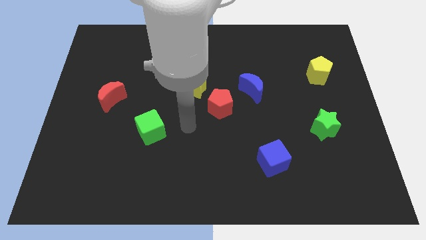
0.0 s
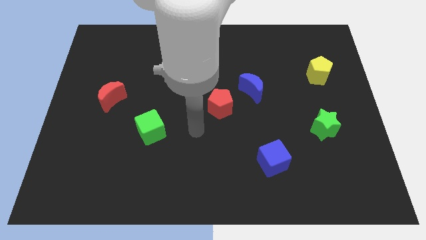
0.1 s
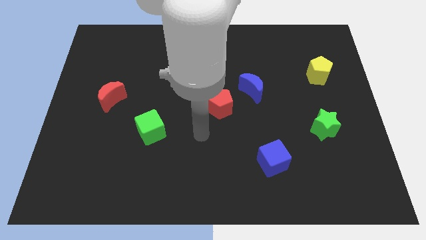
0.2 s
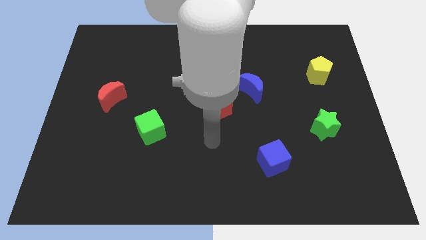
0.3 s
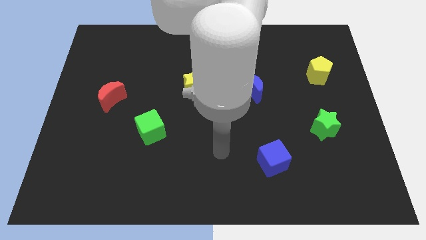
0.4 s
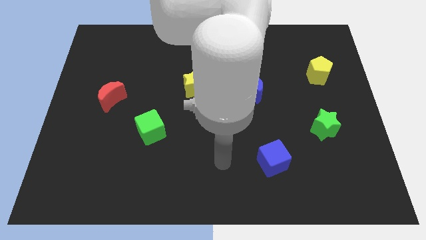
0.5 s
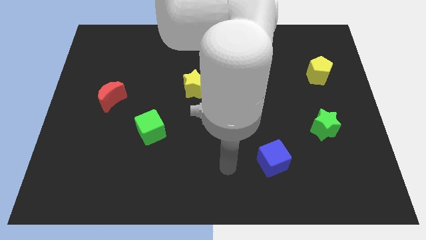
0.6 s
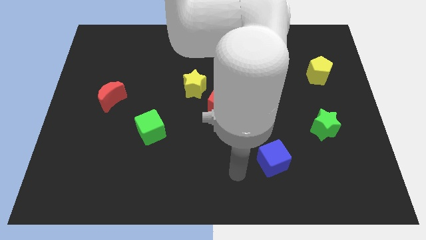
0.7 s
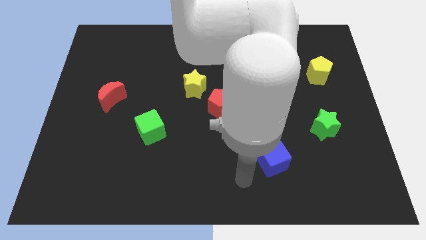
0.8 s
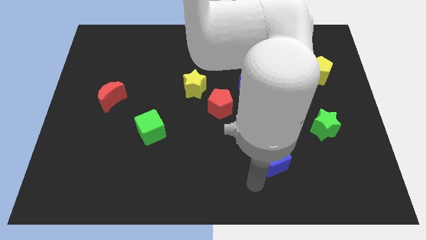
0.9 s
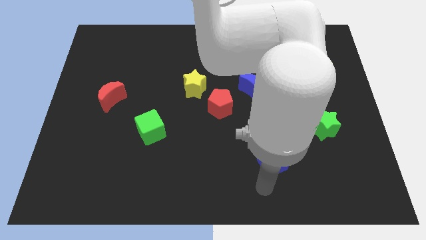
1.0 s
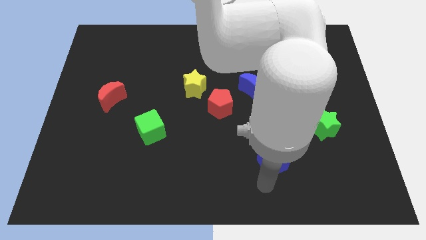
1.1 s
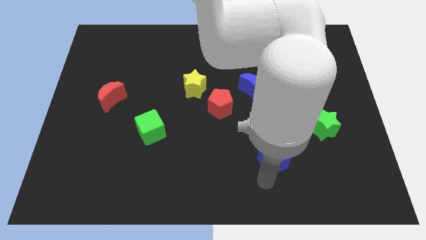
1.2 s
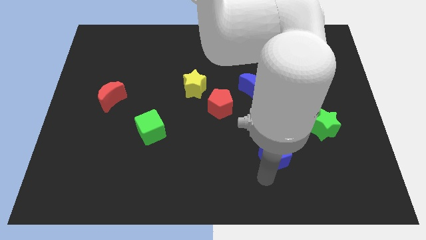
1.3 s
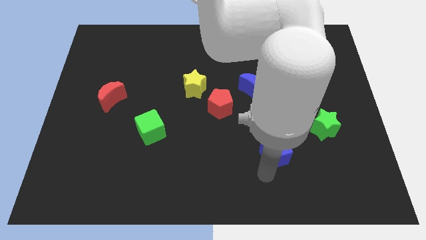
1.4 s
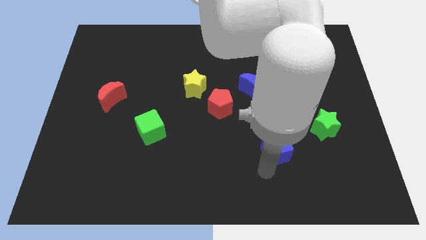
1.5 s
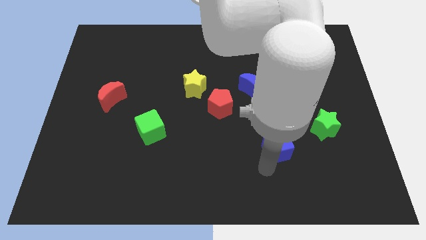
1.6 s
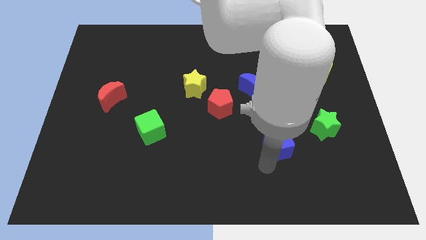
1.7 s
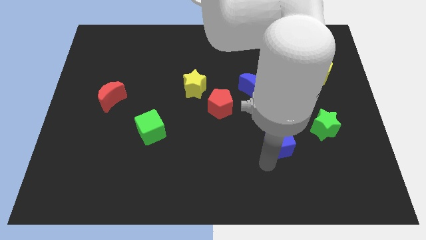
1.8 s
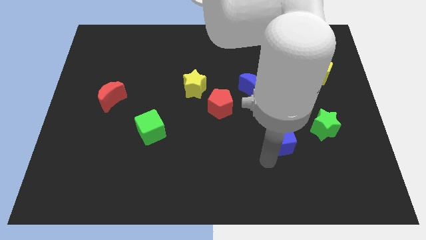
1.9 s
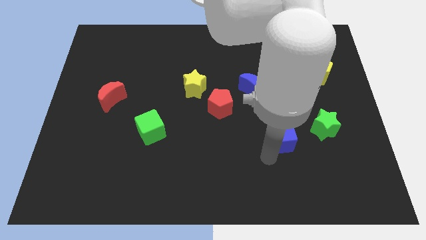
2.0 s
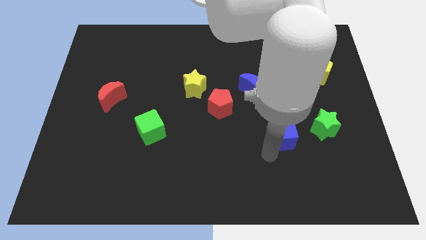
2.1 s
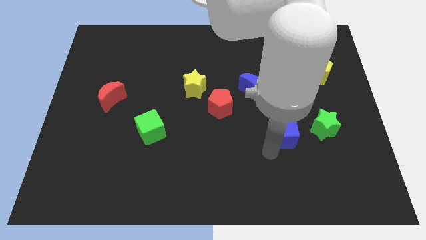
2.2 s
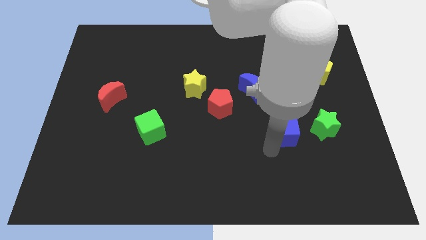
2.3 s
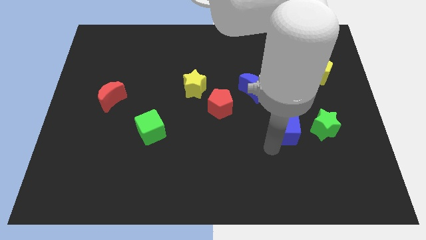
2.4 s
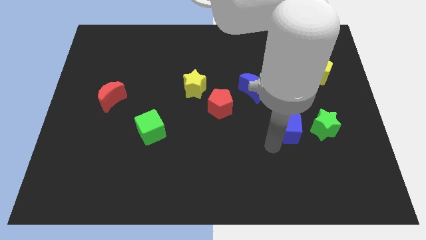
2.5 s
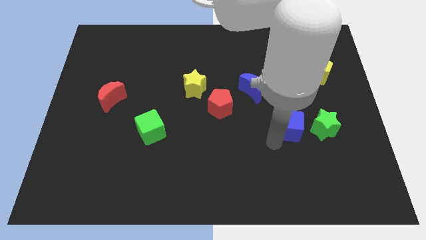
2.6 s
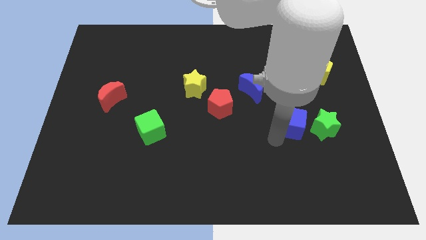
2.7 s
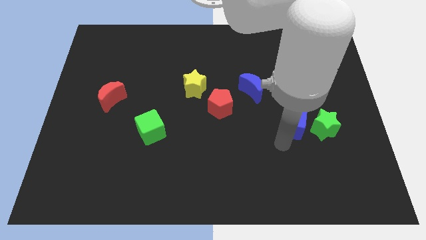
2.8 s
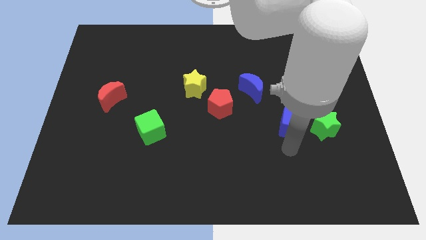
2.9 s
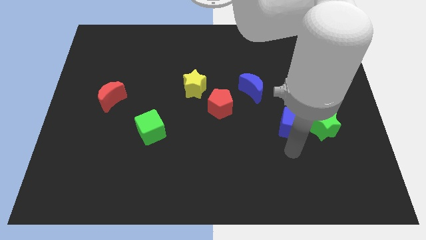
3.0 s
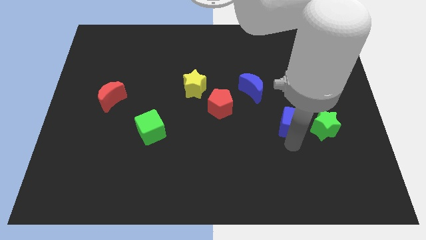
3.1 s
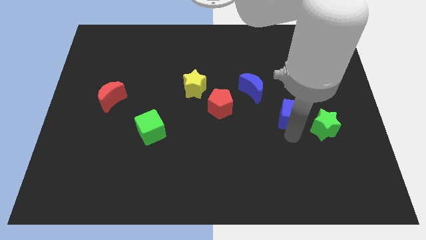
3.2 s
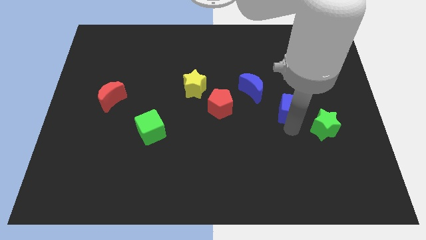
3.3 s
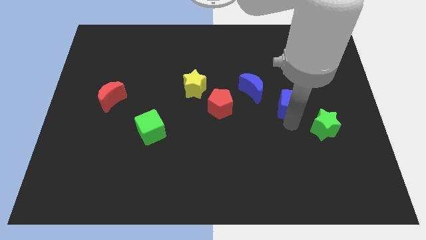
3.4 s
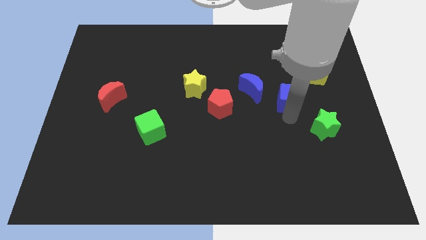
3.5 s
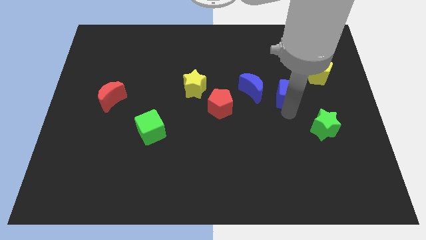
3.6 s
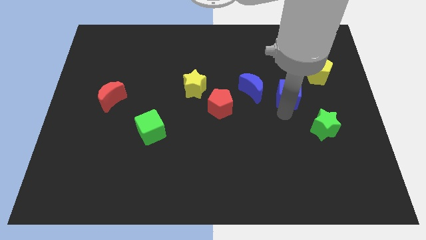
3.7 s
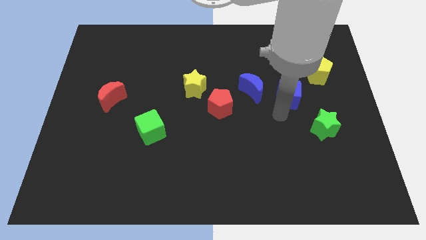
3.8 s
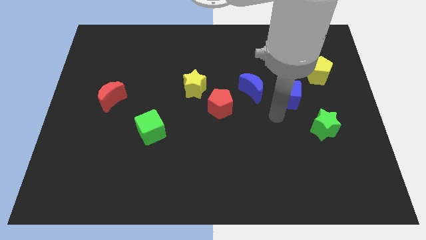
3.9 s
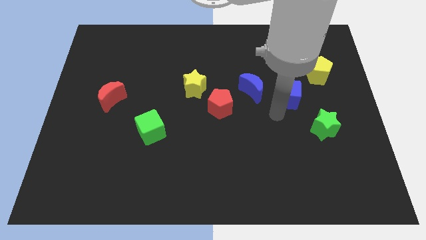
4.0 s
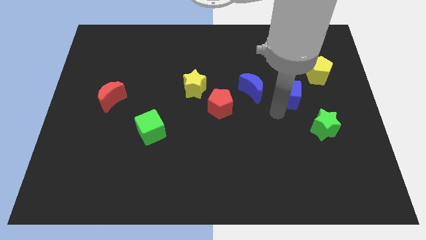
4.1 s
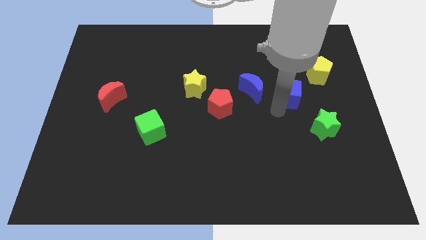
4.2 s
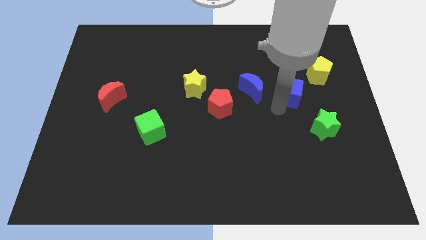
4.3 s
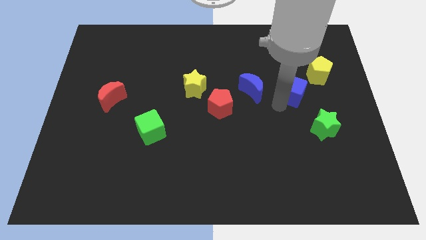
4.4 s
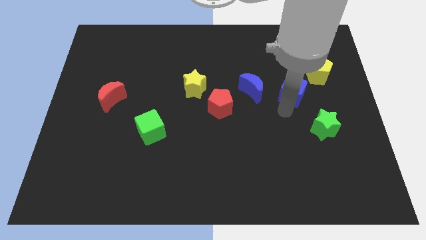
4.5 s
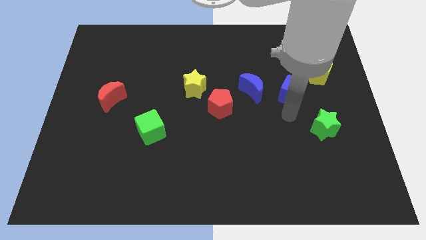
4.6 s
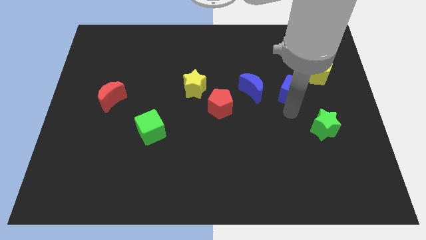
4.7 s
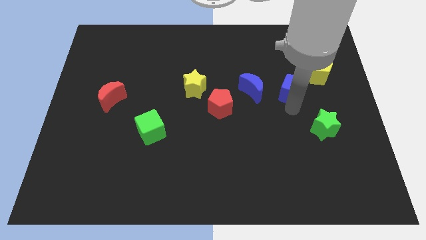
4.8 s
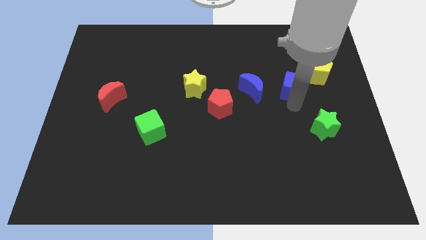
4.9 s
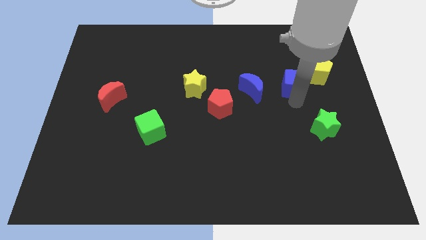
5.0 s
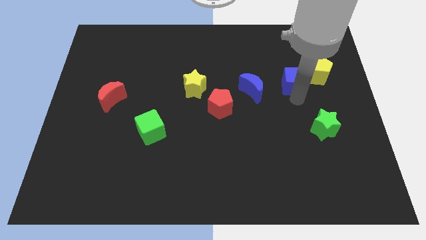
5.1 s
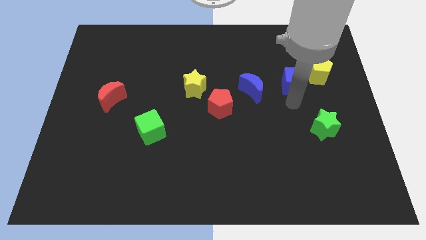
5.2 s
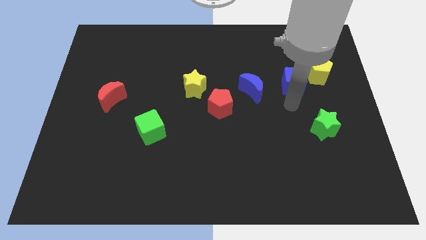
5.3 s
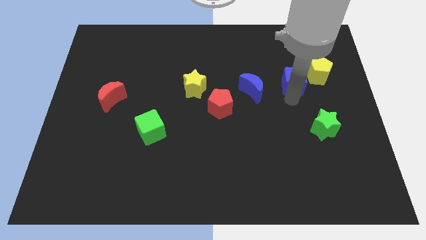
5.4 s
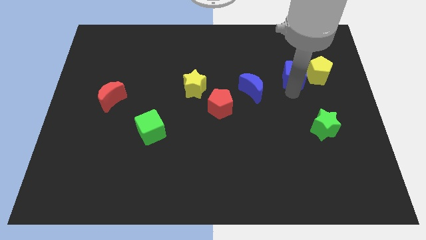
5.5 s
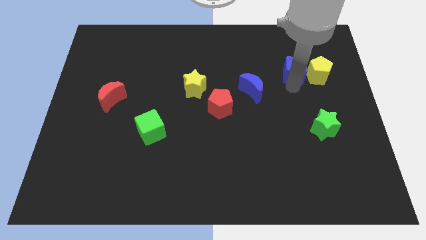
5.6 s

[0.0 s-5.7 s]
slide the blue cube to the top left side of the yellow pentagon
